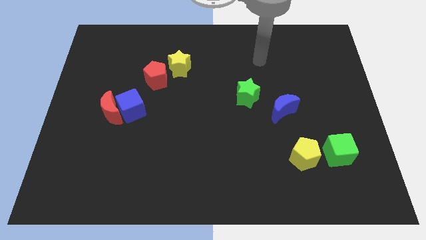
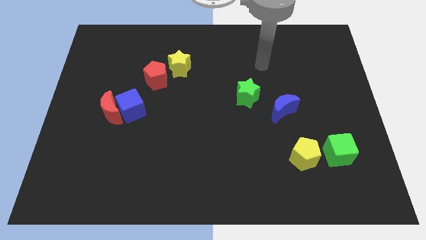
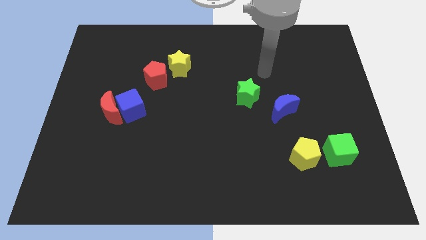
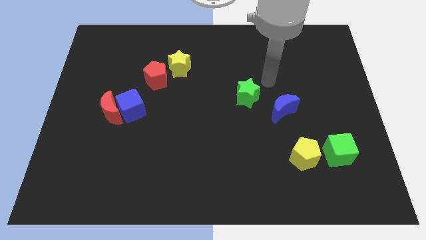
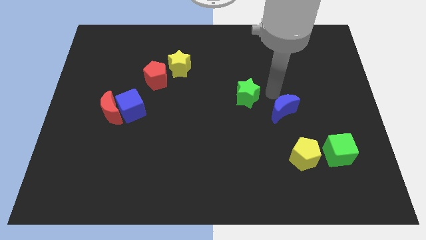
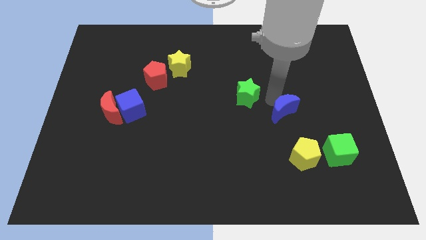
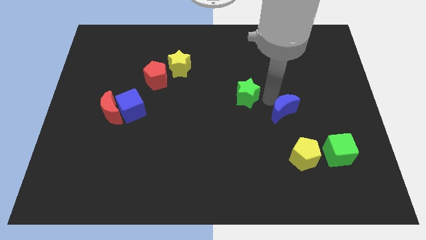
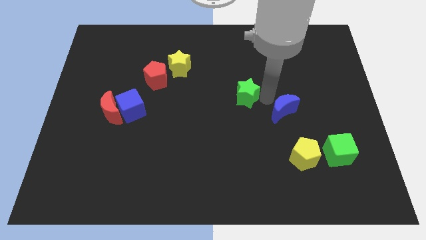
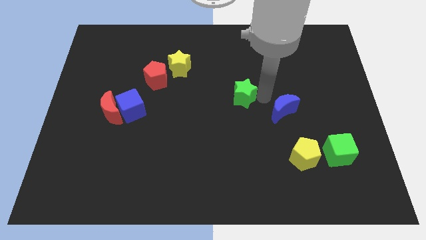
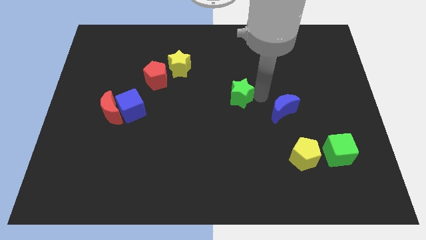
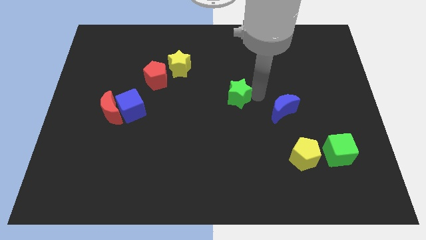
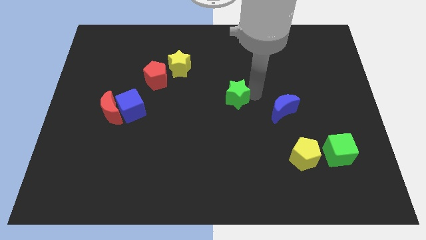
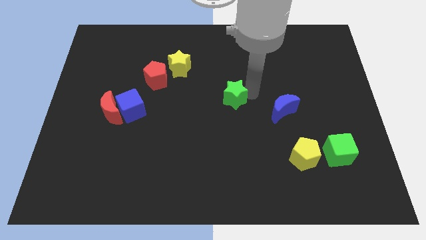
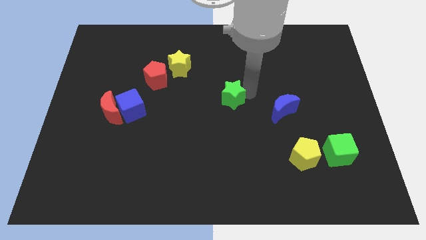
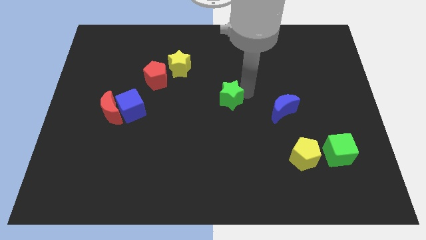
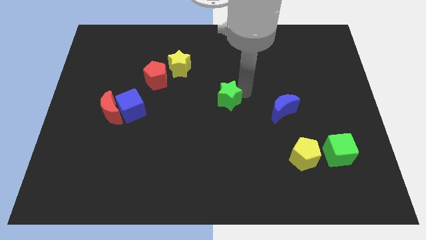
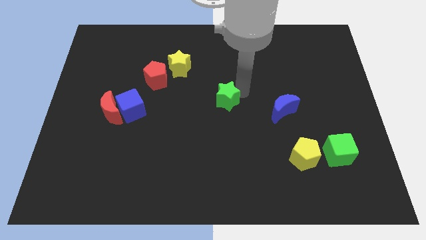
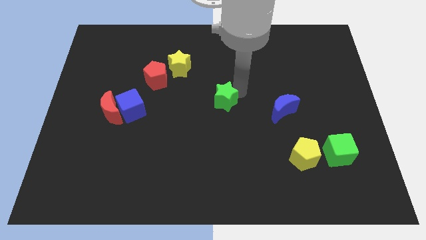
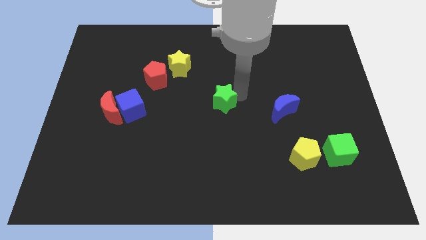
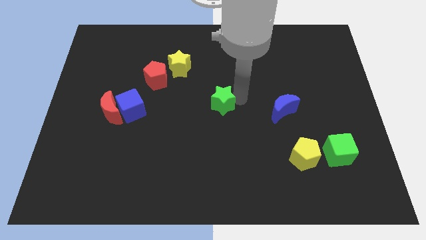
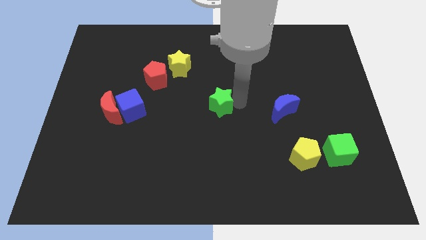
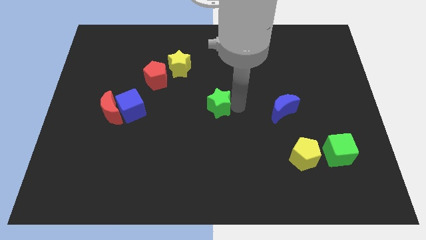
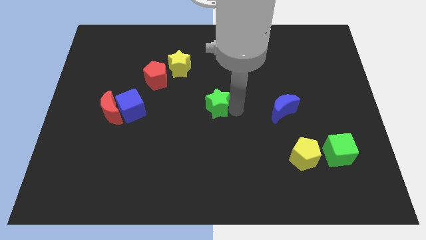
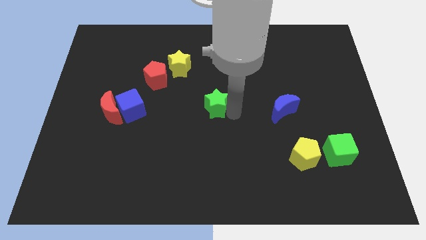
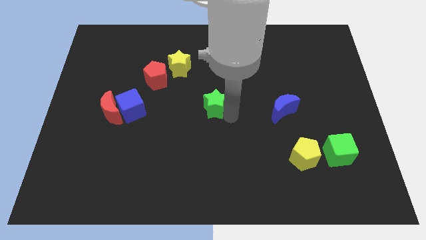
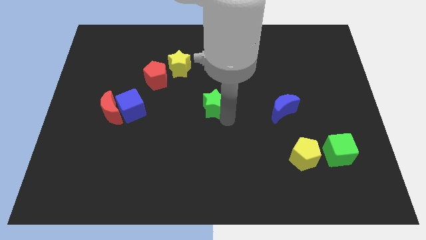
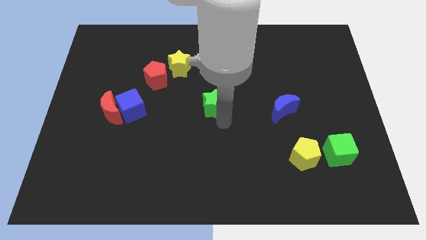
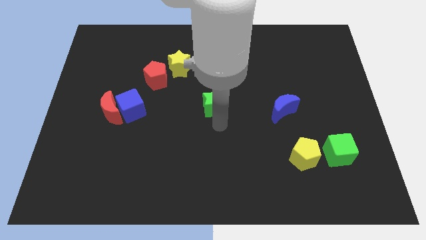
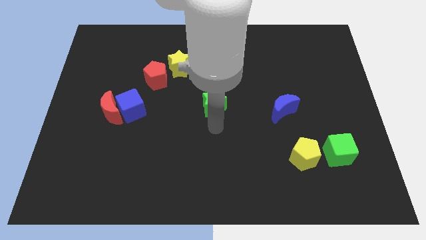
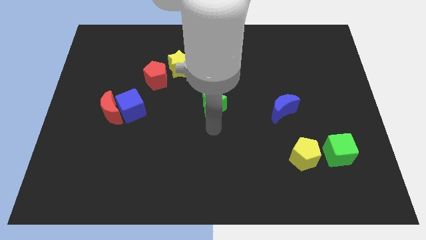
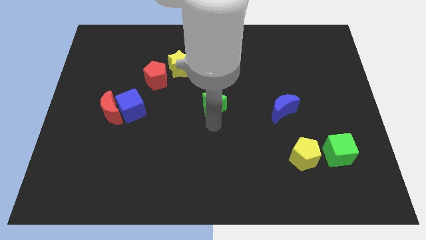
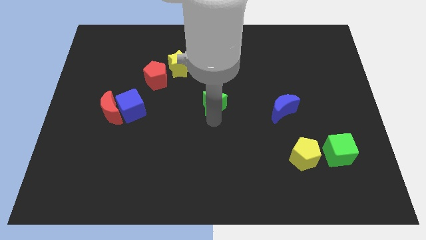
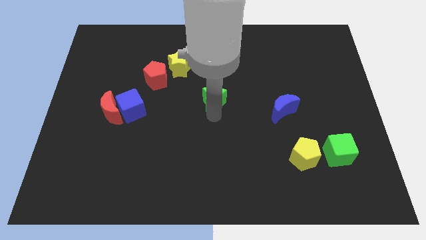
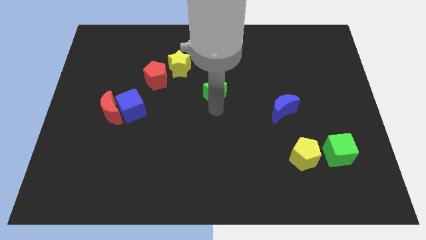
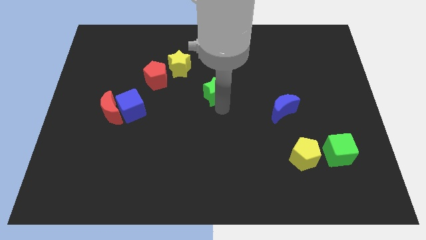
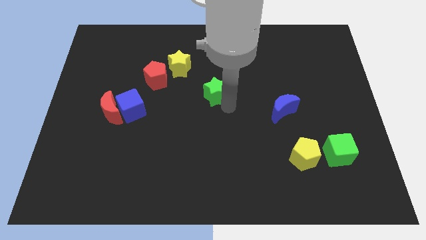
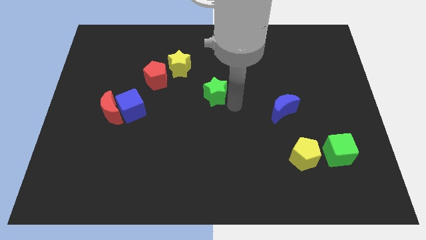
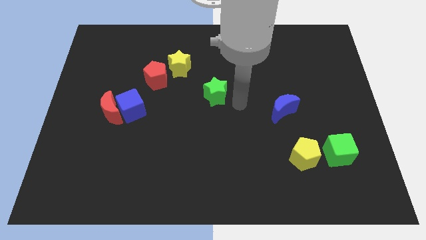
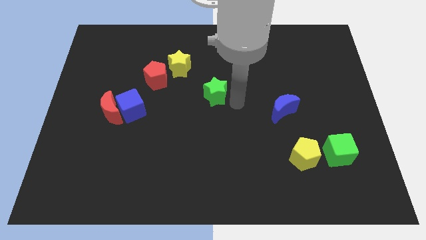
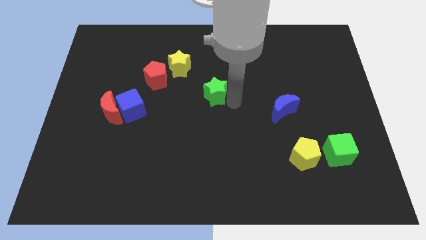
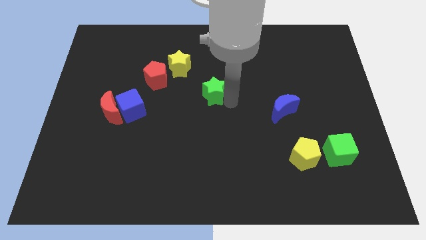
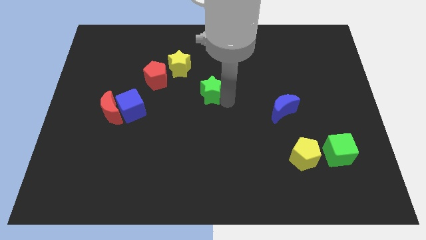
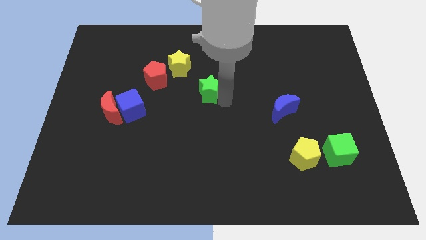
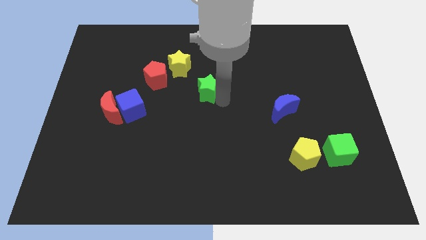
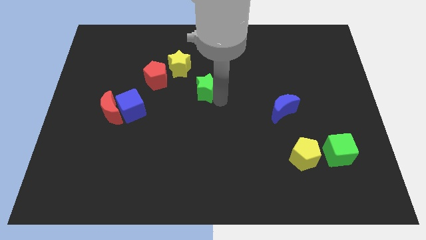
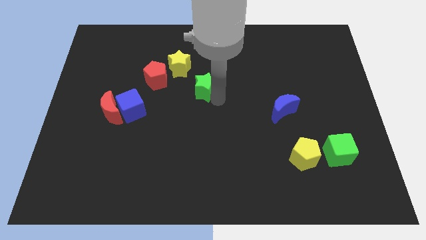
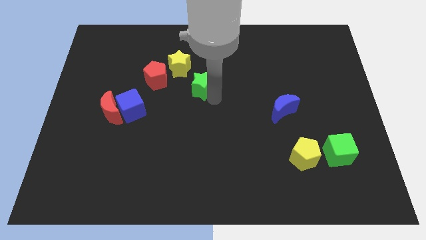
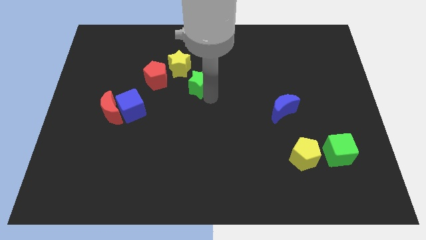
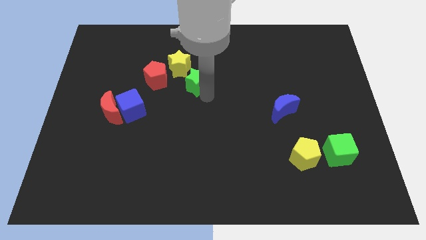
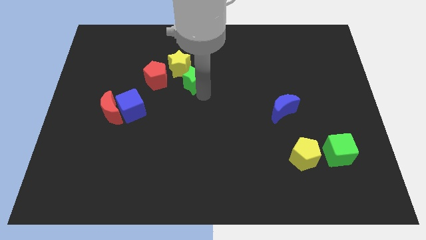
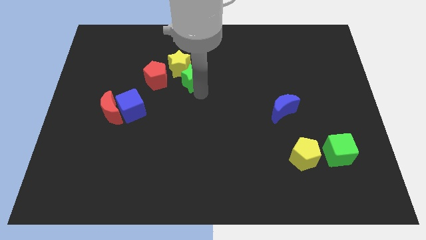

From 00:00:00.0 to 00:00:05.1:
push the green star close to the yellow star

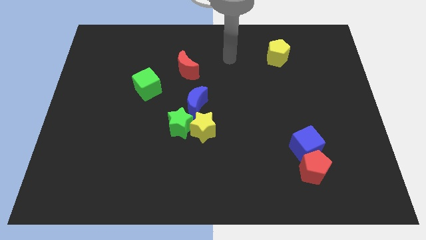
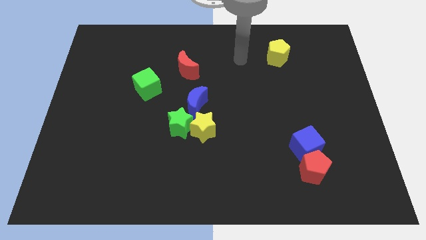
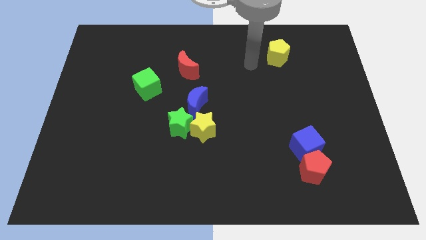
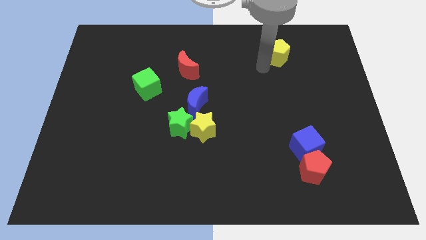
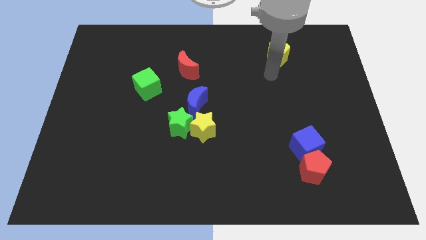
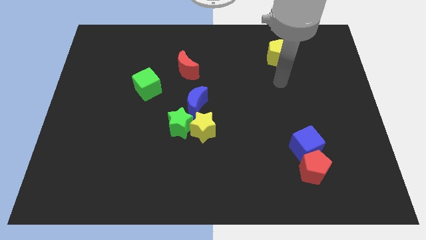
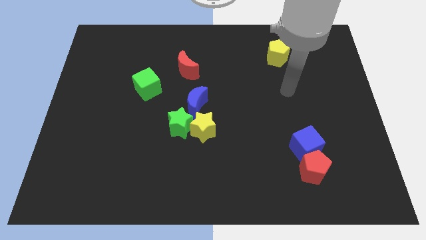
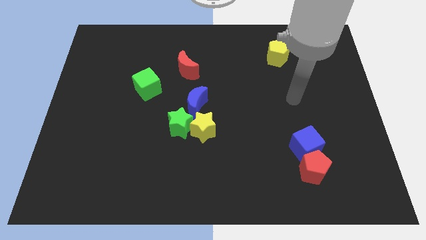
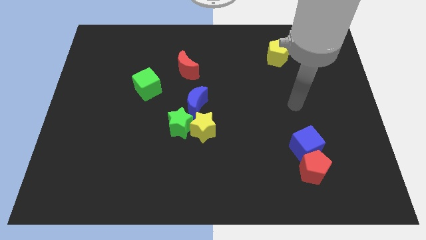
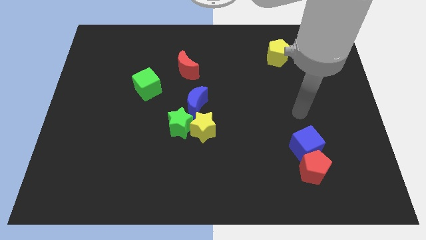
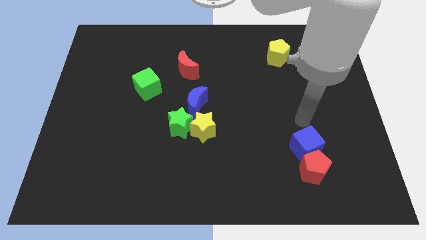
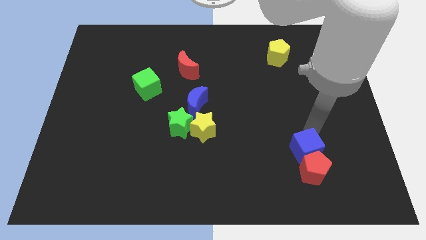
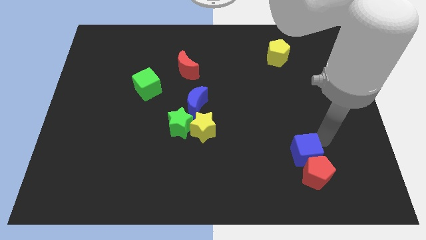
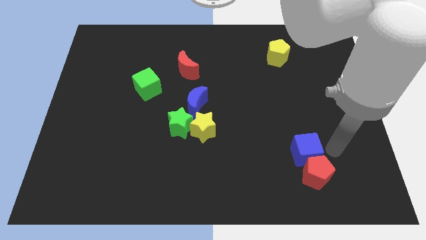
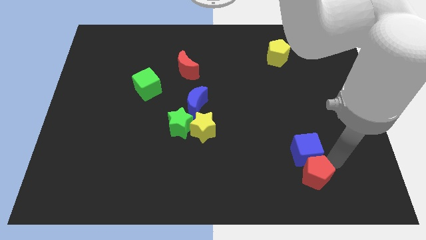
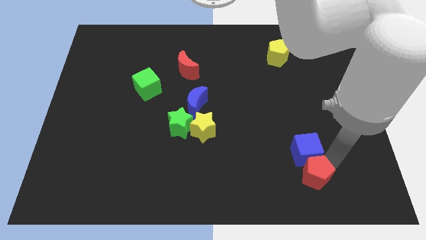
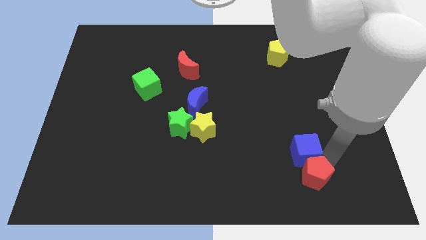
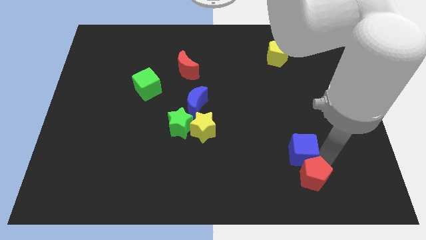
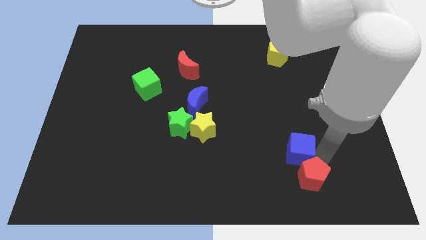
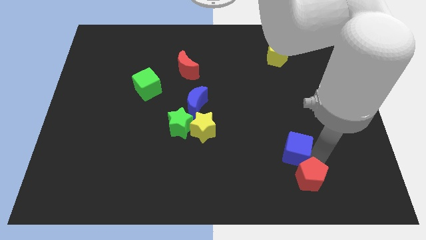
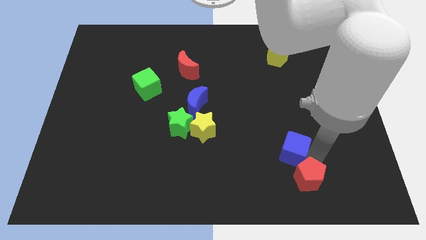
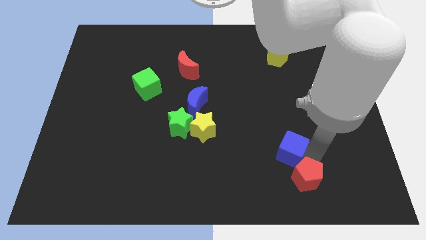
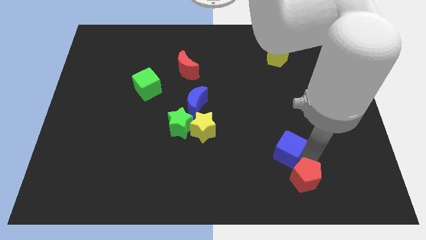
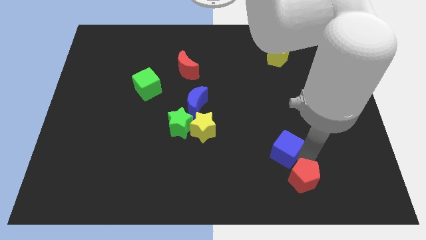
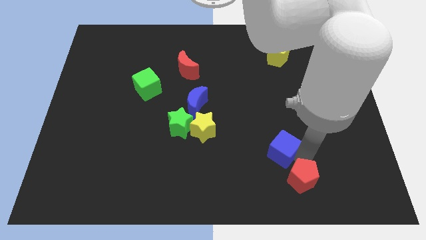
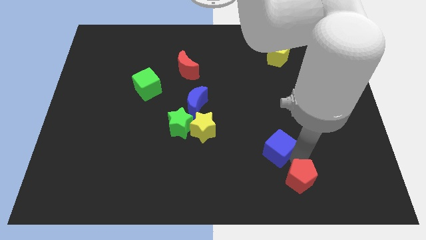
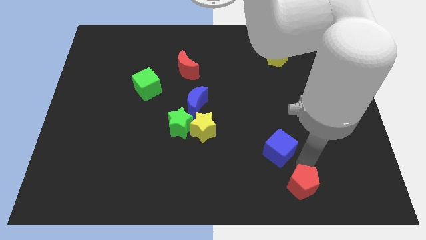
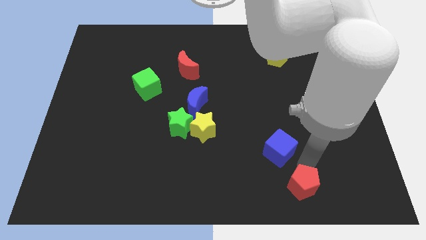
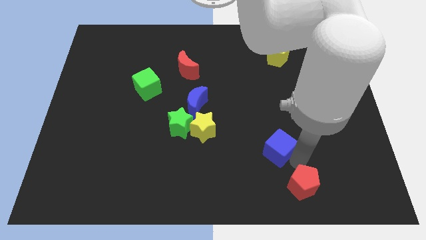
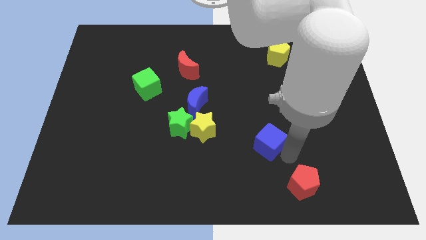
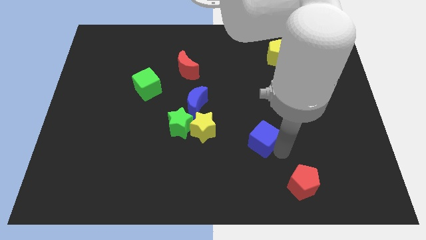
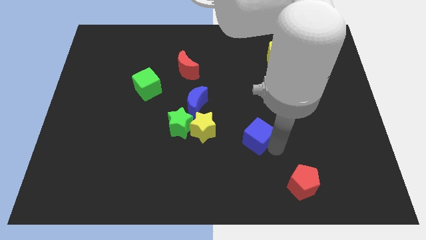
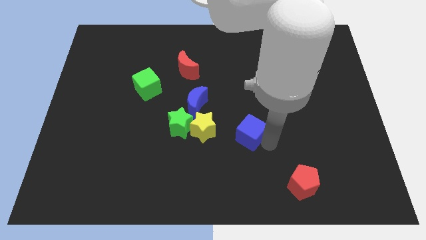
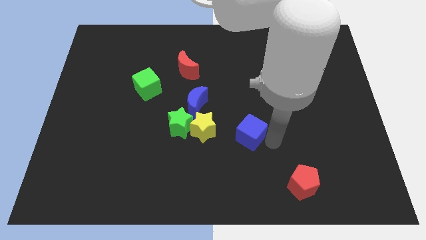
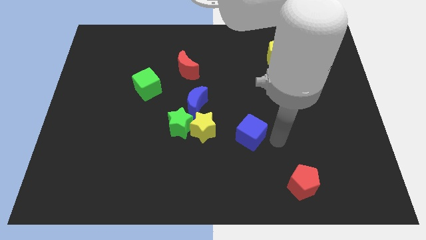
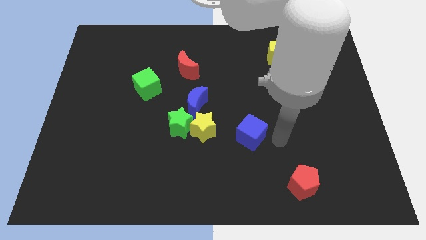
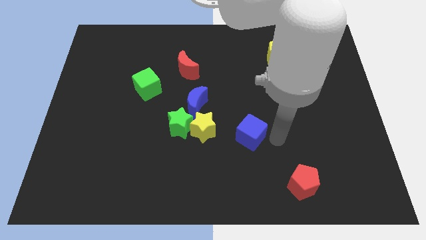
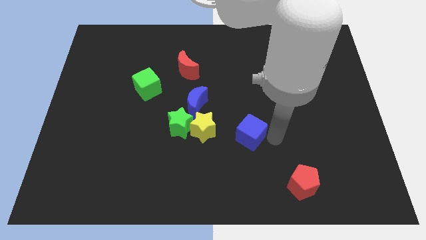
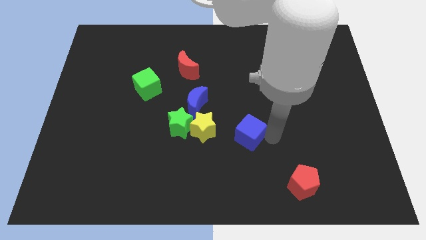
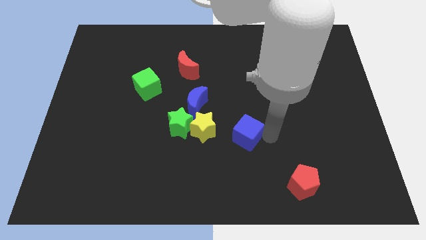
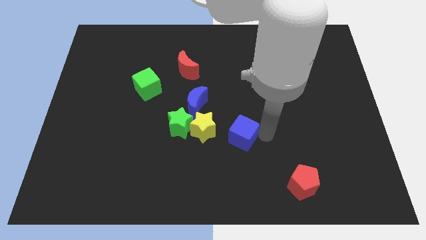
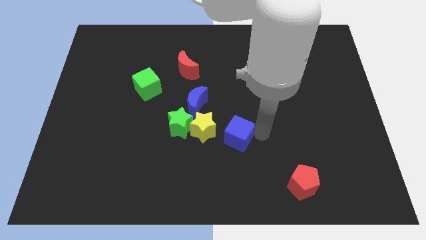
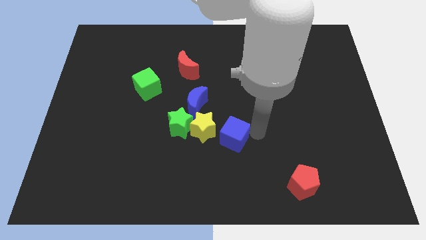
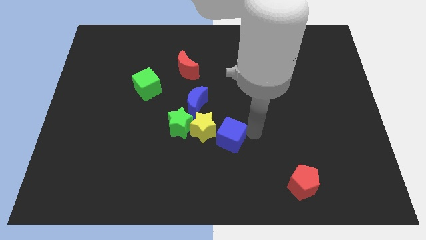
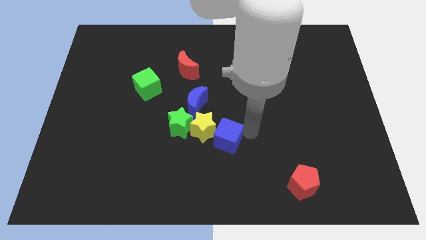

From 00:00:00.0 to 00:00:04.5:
push the blue cube towards the yellow star
